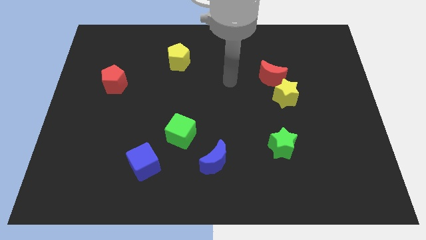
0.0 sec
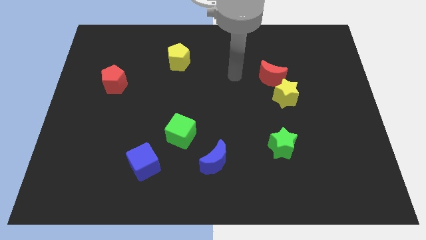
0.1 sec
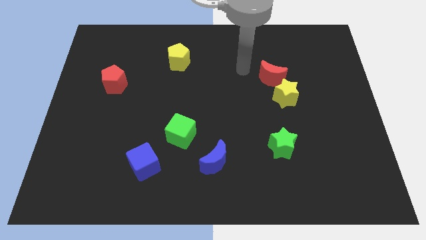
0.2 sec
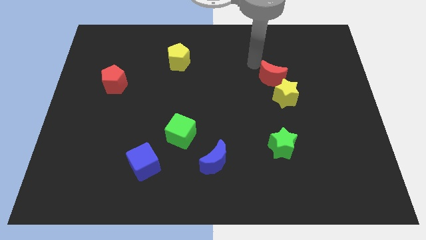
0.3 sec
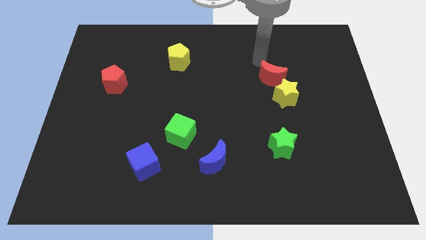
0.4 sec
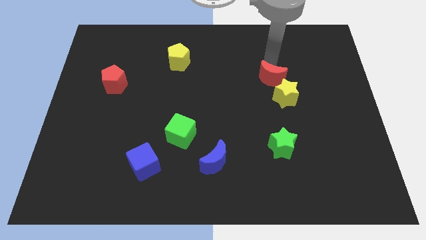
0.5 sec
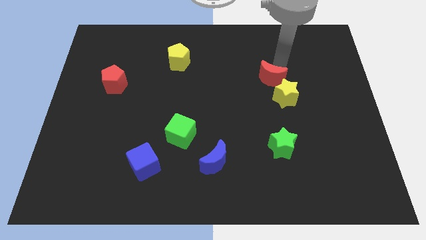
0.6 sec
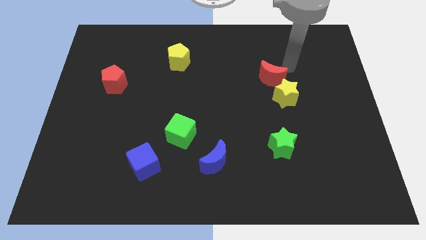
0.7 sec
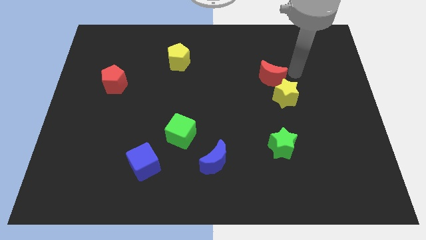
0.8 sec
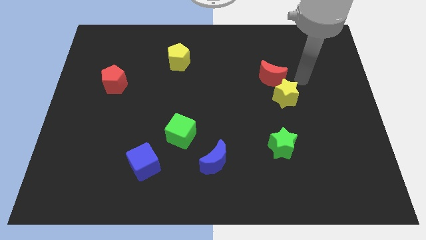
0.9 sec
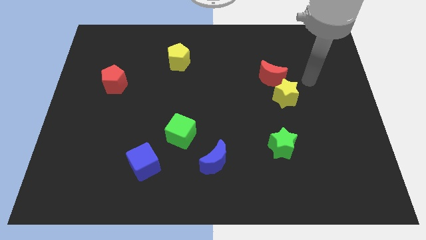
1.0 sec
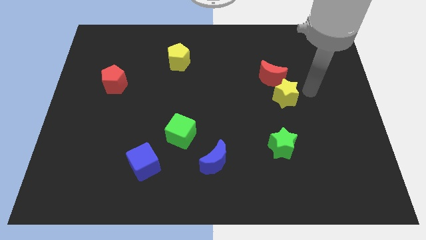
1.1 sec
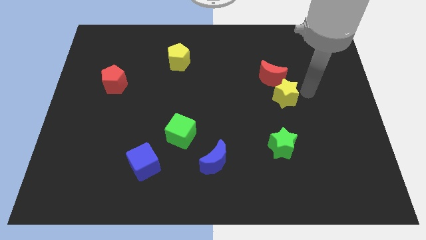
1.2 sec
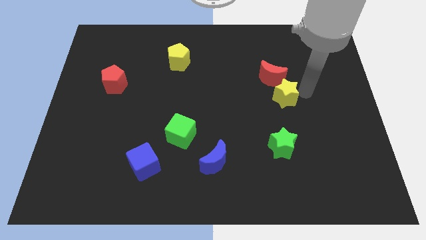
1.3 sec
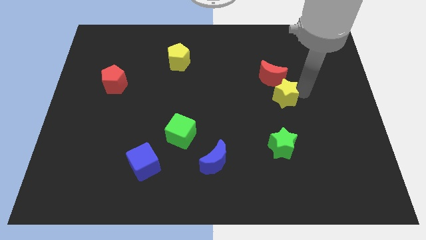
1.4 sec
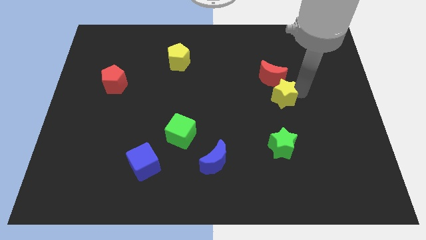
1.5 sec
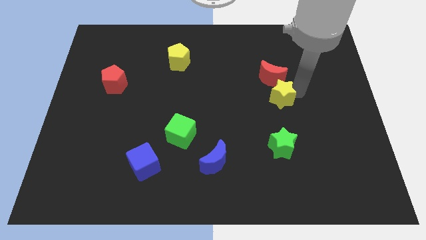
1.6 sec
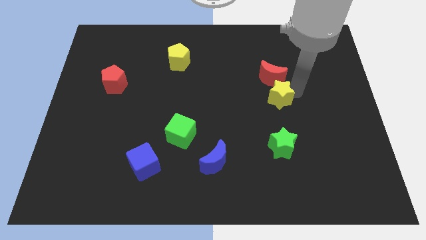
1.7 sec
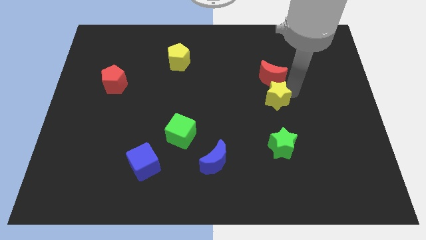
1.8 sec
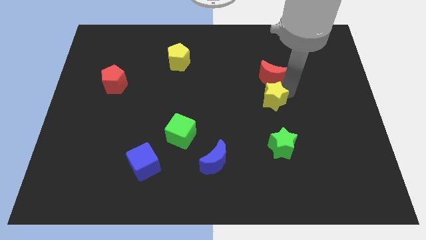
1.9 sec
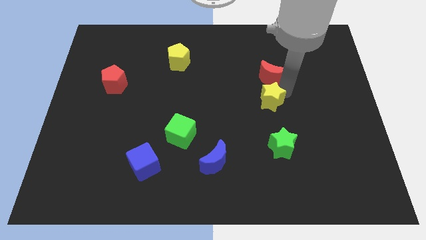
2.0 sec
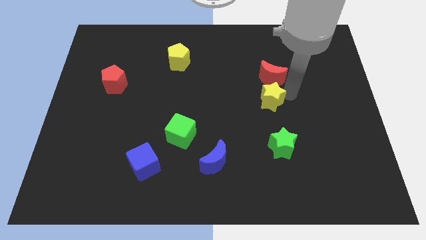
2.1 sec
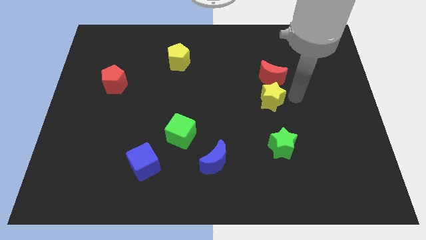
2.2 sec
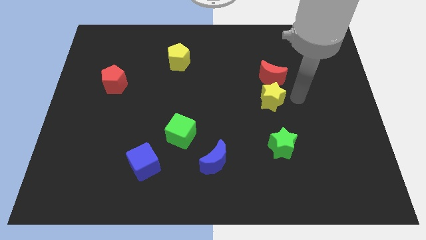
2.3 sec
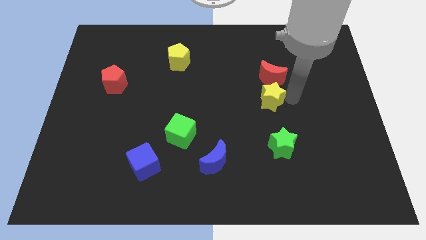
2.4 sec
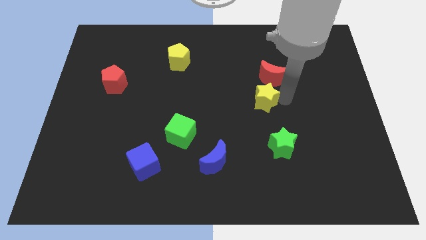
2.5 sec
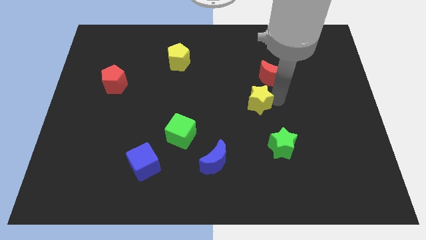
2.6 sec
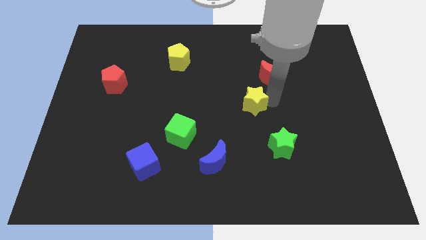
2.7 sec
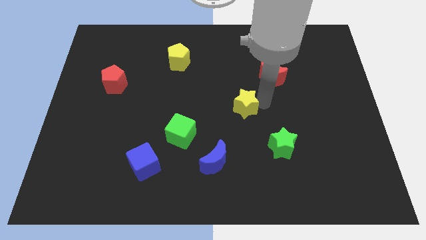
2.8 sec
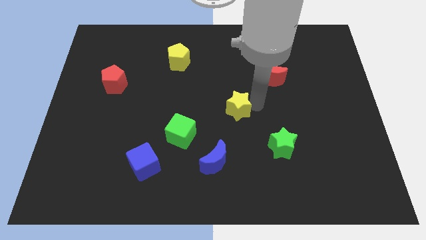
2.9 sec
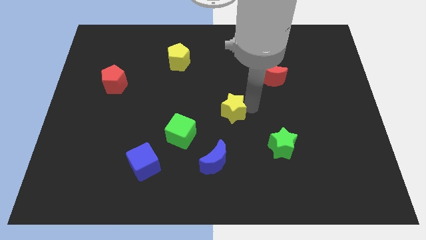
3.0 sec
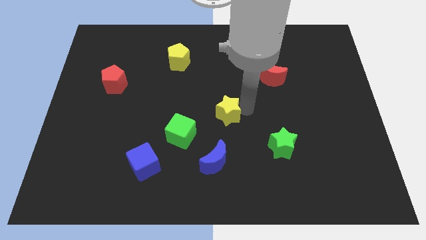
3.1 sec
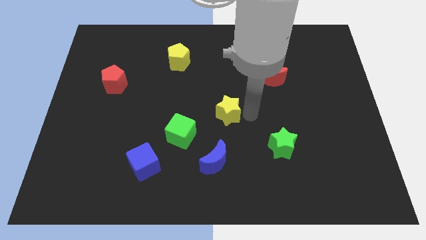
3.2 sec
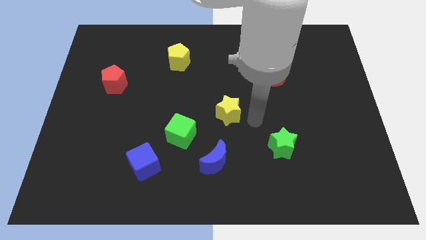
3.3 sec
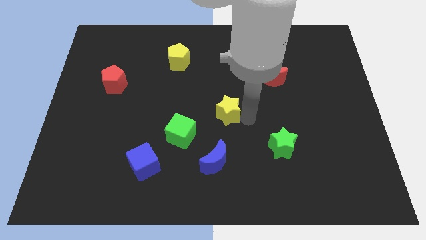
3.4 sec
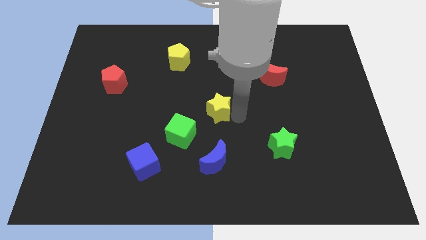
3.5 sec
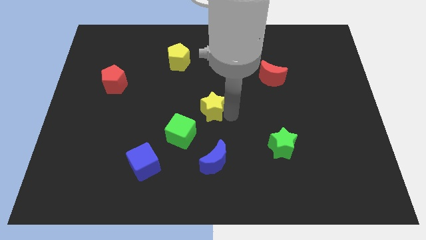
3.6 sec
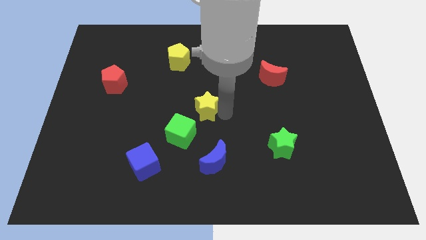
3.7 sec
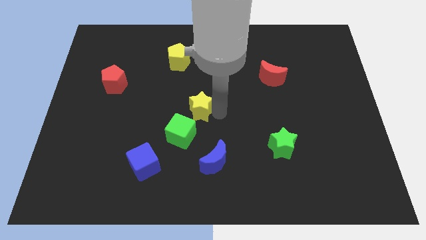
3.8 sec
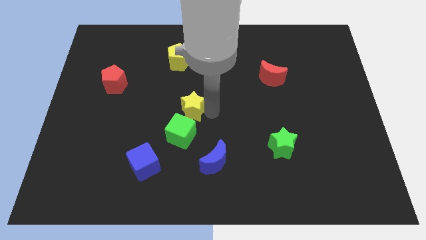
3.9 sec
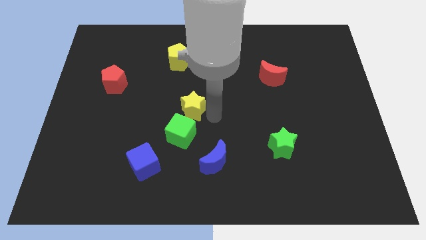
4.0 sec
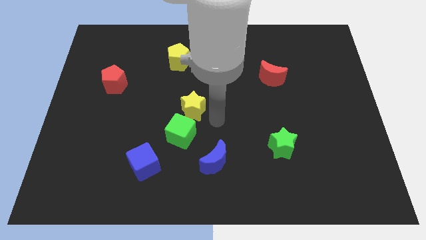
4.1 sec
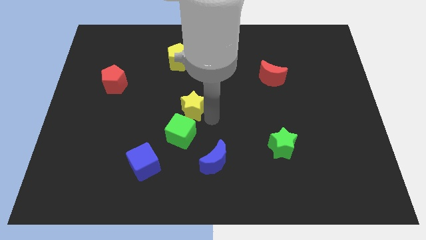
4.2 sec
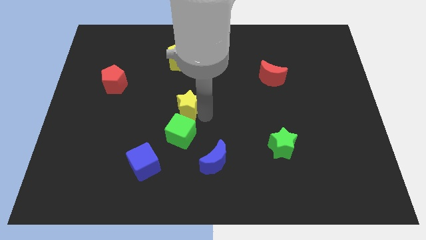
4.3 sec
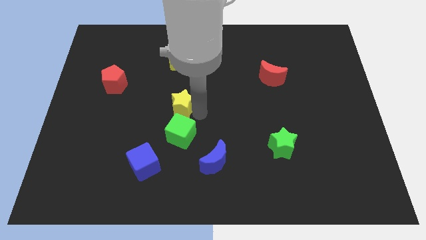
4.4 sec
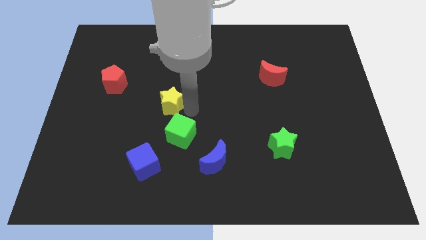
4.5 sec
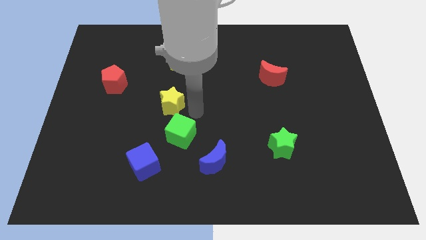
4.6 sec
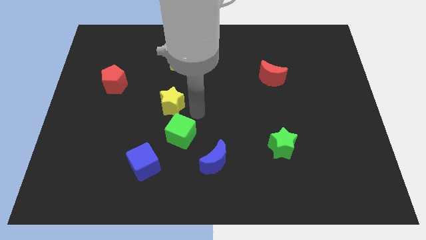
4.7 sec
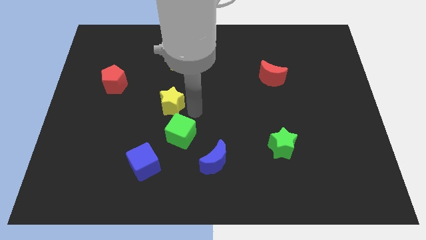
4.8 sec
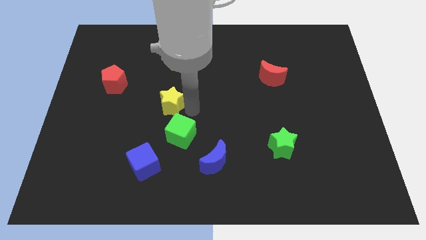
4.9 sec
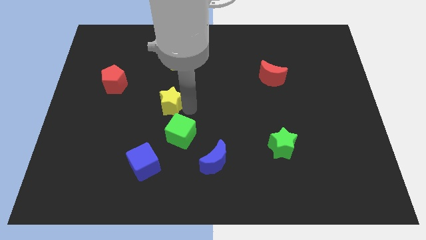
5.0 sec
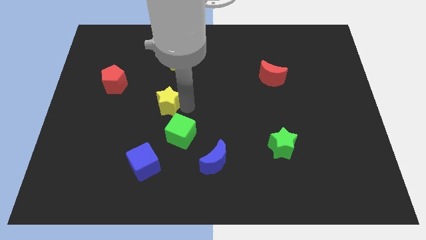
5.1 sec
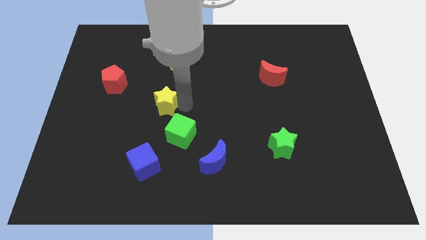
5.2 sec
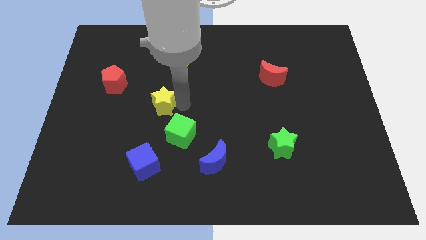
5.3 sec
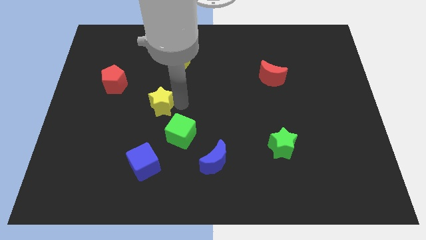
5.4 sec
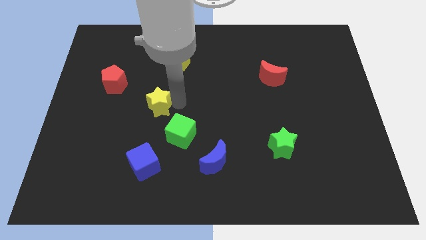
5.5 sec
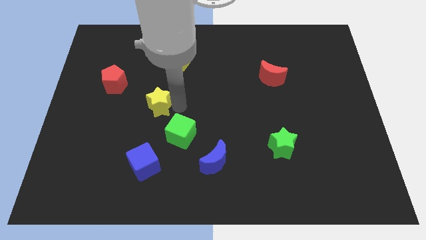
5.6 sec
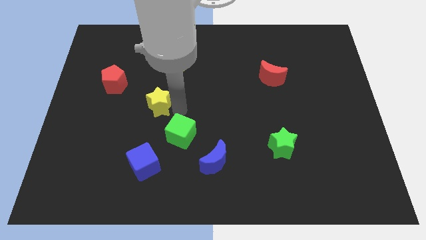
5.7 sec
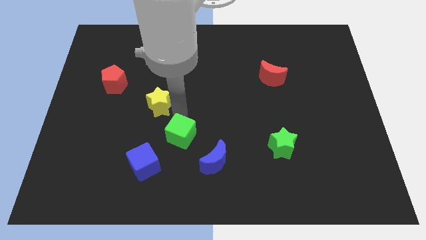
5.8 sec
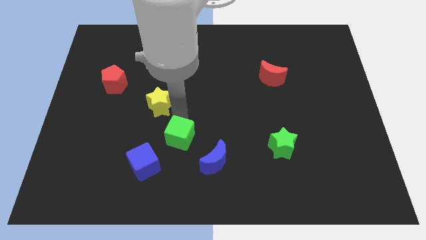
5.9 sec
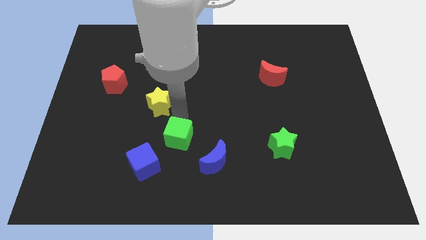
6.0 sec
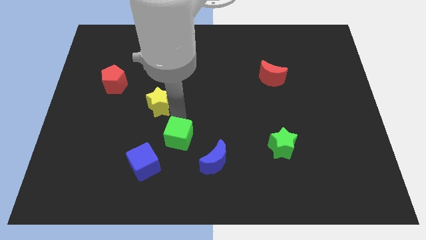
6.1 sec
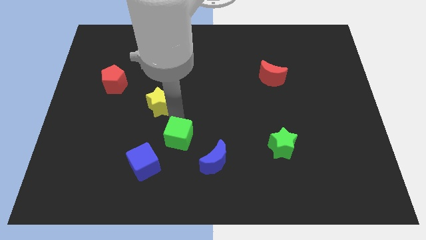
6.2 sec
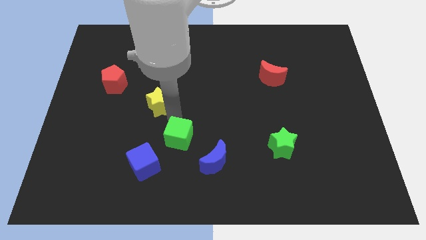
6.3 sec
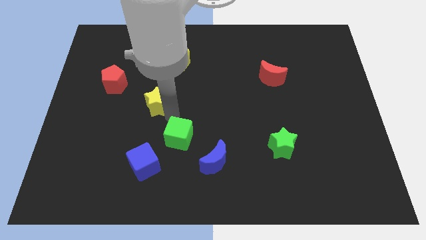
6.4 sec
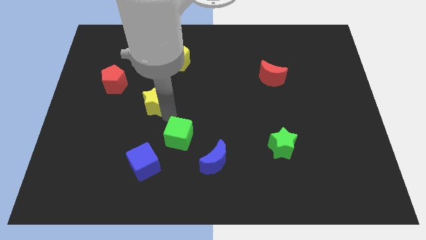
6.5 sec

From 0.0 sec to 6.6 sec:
push the yellow star to the bottom right of the red pentagon
